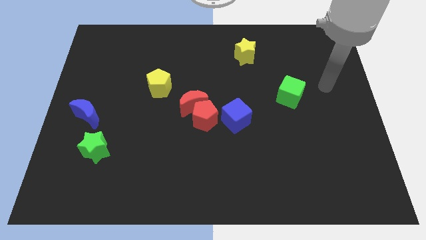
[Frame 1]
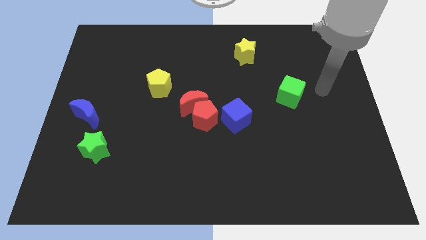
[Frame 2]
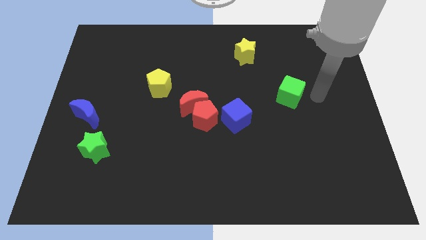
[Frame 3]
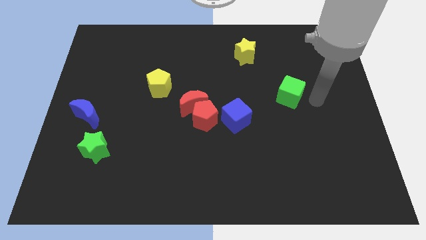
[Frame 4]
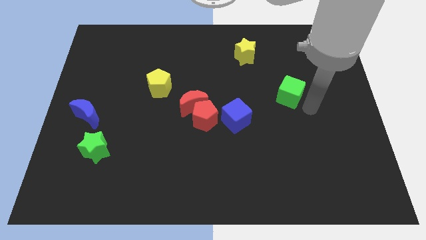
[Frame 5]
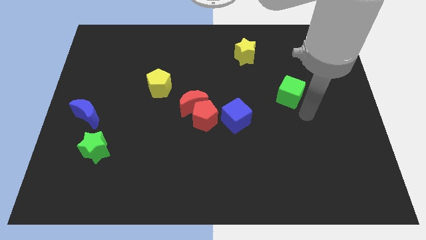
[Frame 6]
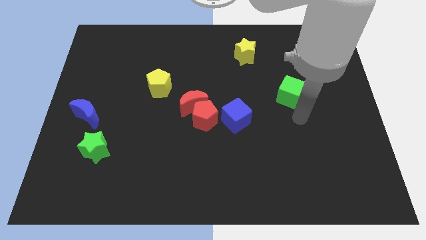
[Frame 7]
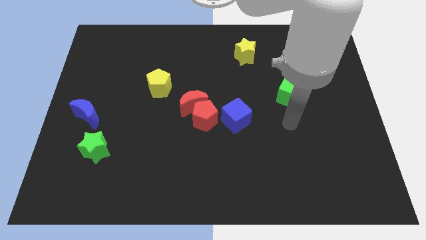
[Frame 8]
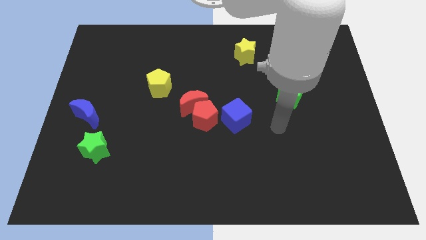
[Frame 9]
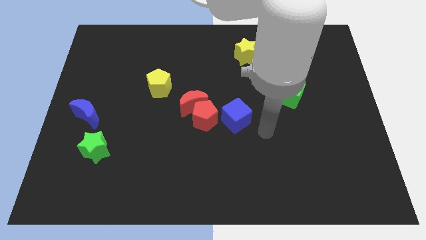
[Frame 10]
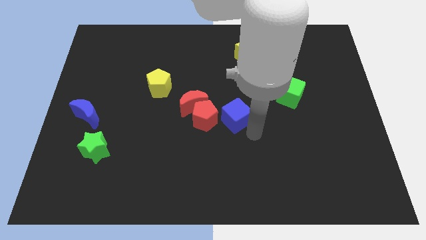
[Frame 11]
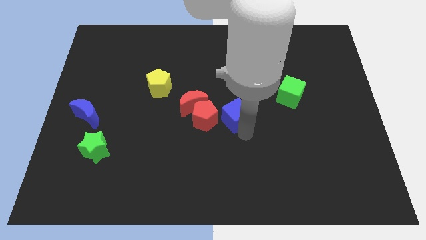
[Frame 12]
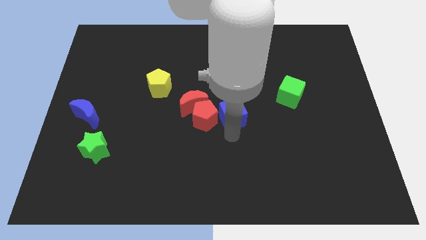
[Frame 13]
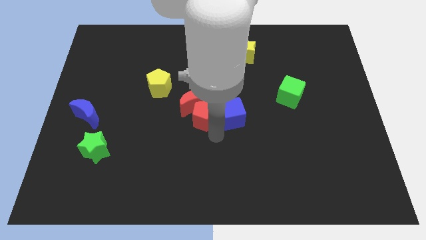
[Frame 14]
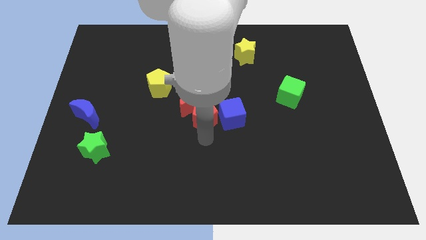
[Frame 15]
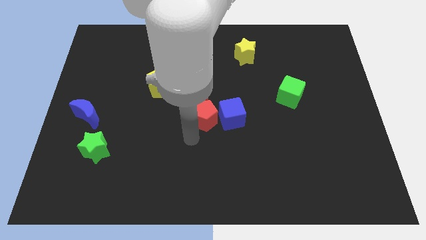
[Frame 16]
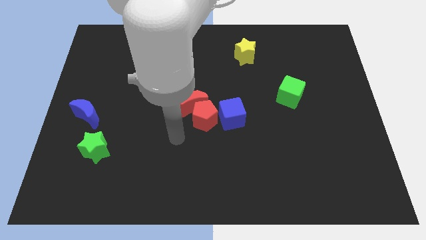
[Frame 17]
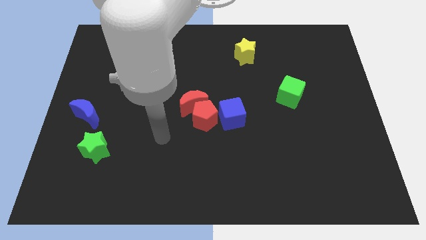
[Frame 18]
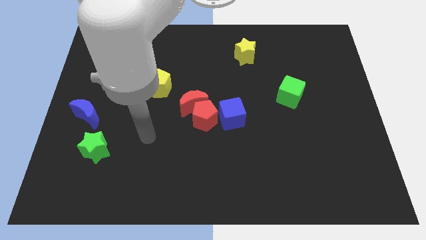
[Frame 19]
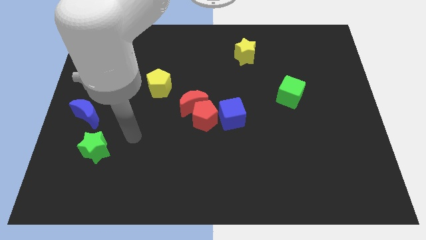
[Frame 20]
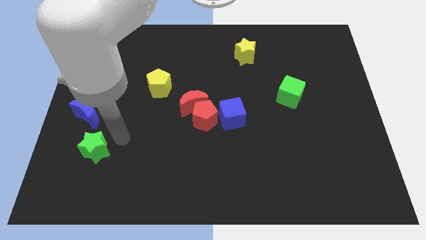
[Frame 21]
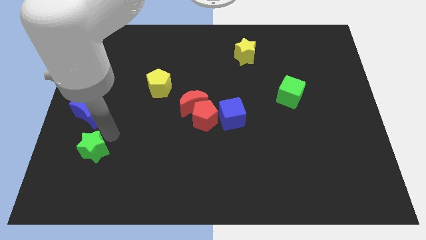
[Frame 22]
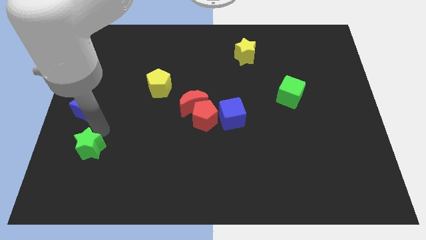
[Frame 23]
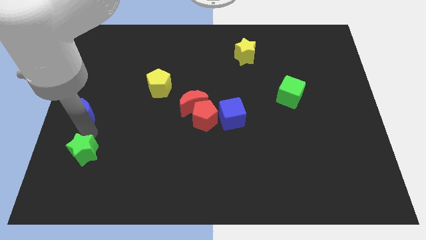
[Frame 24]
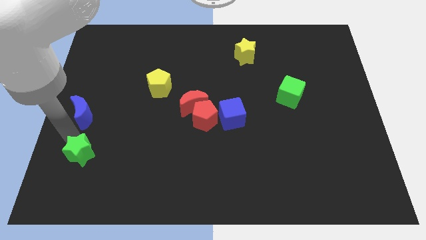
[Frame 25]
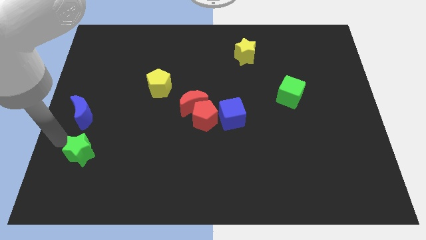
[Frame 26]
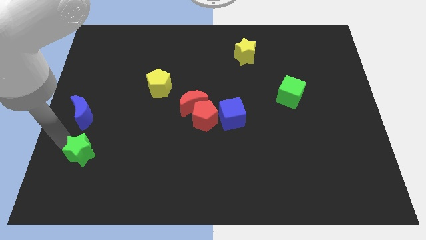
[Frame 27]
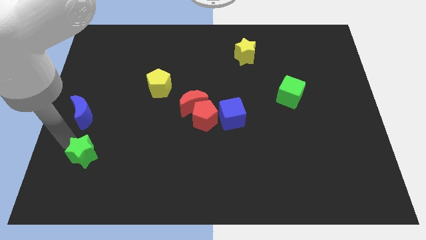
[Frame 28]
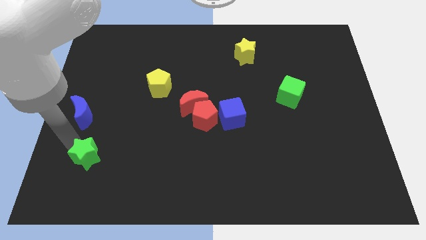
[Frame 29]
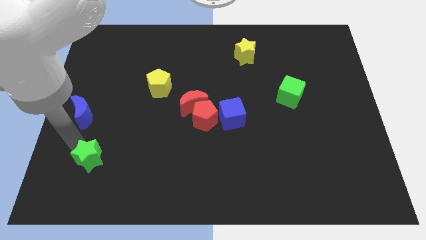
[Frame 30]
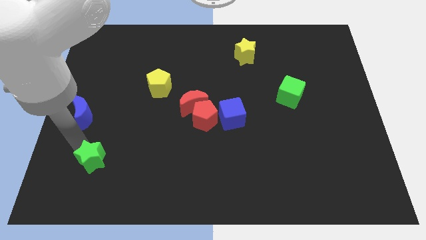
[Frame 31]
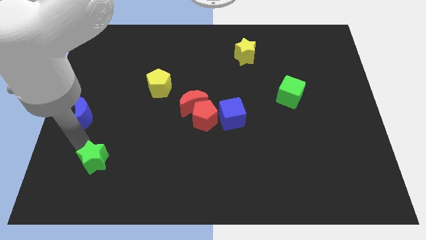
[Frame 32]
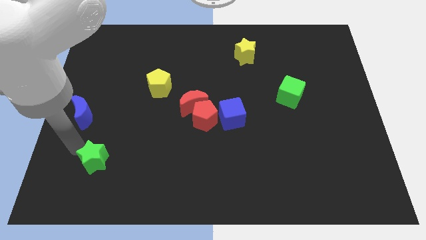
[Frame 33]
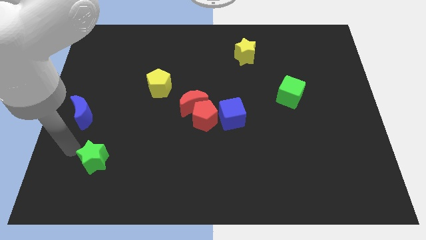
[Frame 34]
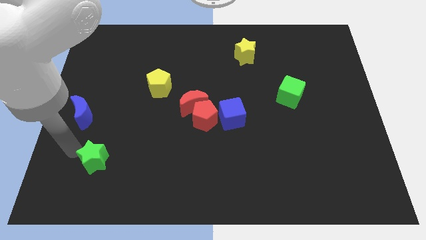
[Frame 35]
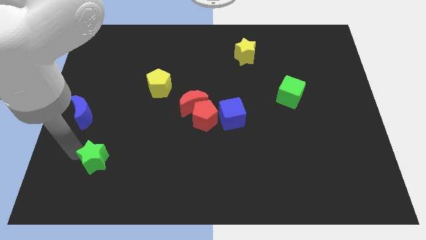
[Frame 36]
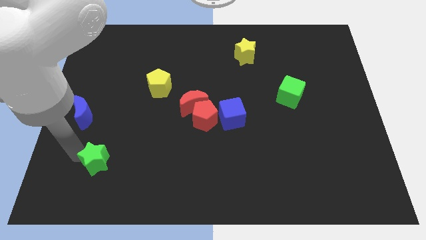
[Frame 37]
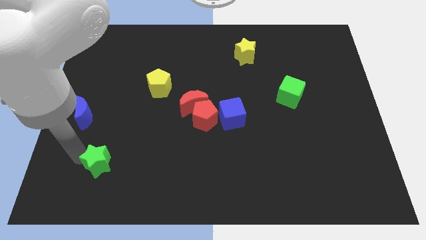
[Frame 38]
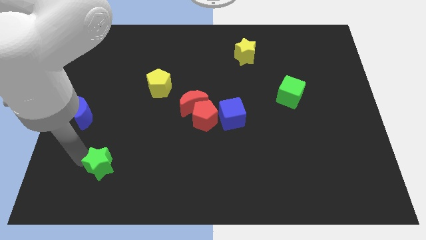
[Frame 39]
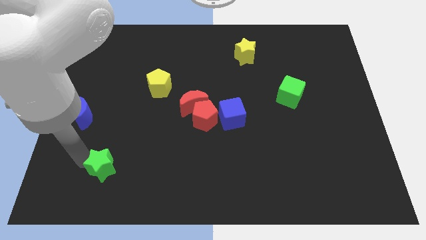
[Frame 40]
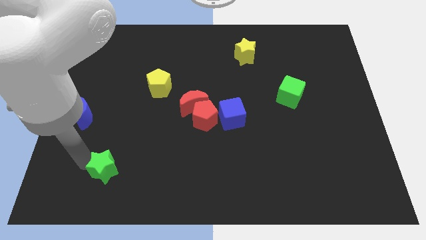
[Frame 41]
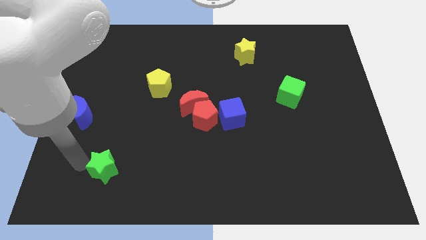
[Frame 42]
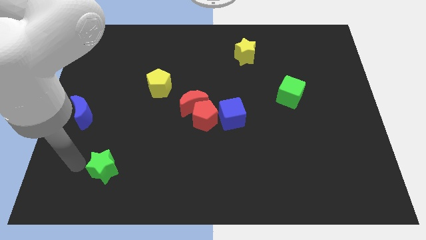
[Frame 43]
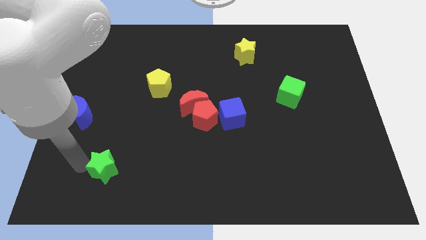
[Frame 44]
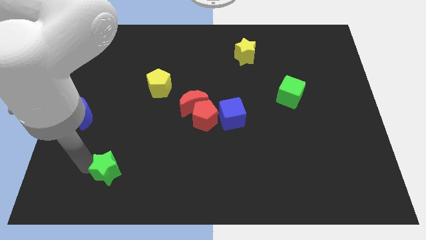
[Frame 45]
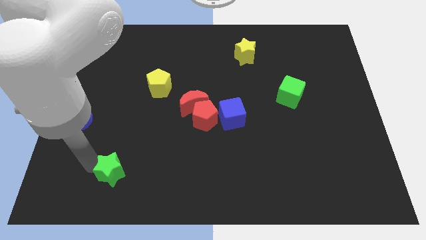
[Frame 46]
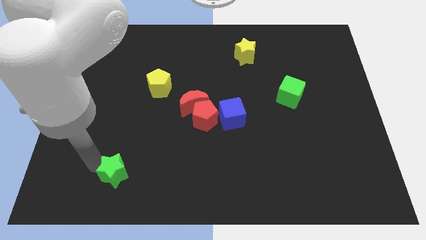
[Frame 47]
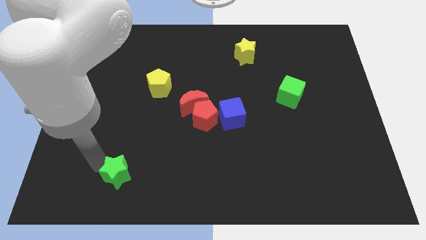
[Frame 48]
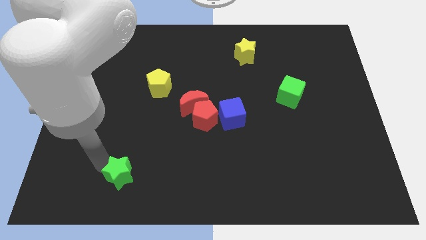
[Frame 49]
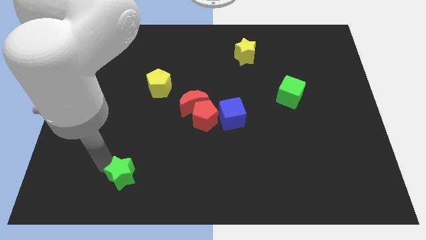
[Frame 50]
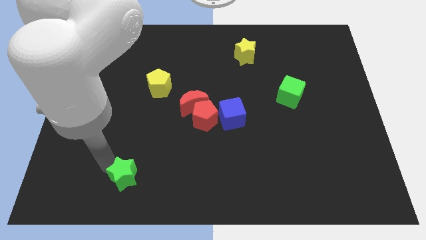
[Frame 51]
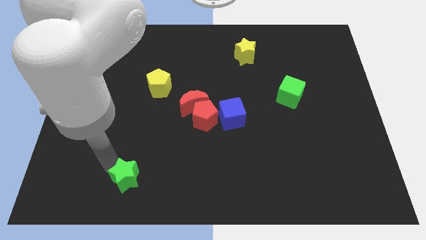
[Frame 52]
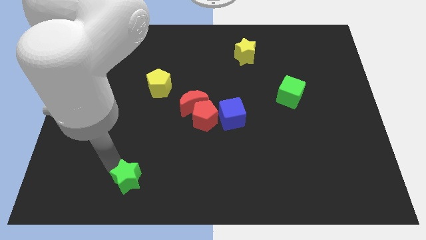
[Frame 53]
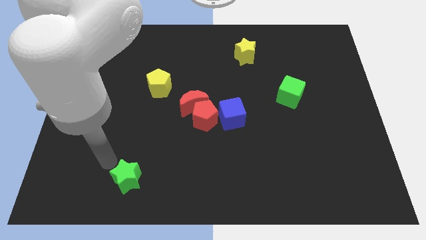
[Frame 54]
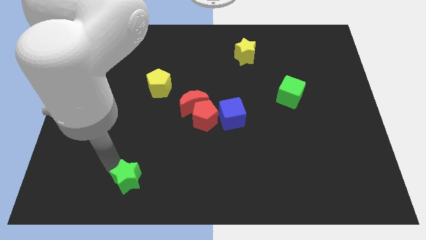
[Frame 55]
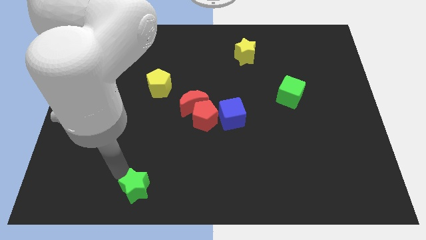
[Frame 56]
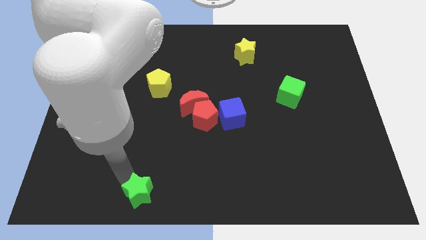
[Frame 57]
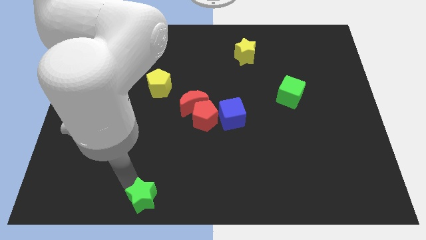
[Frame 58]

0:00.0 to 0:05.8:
slide the green star to the bottom side

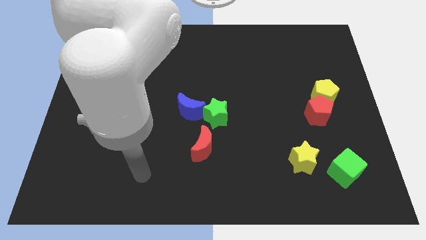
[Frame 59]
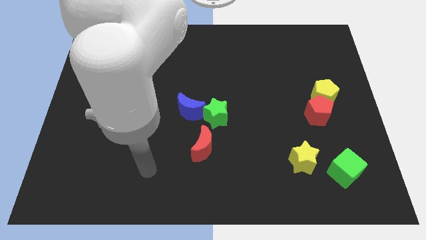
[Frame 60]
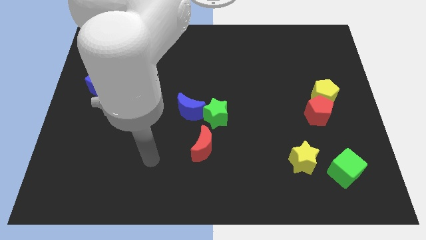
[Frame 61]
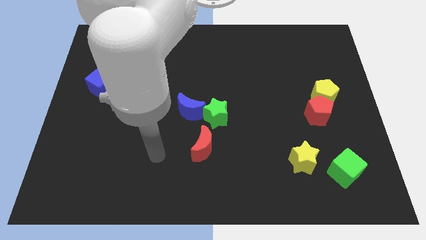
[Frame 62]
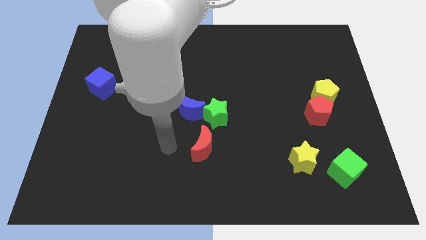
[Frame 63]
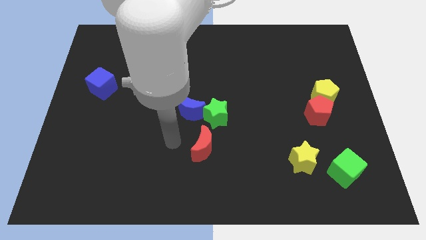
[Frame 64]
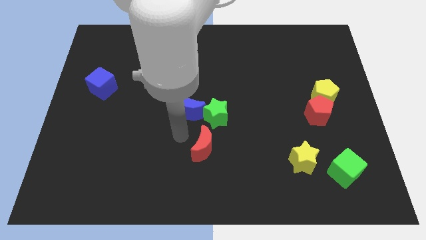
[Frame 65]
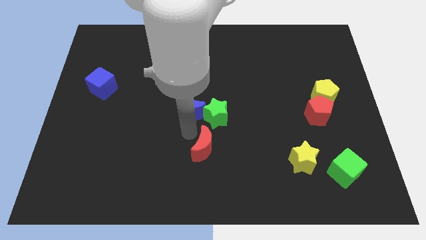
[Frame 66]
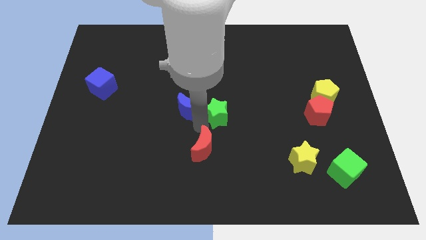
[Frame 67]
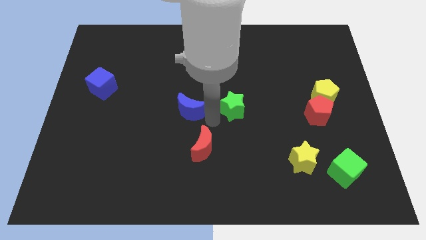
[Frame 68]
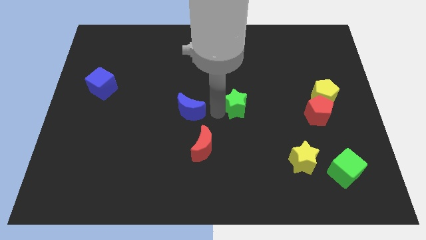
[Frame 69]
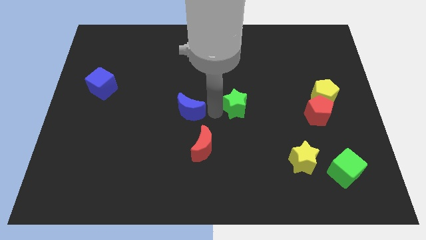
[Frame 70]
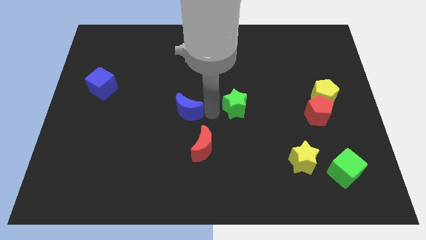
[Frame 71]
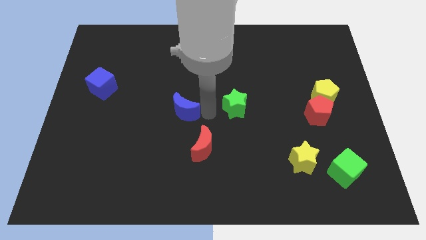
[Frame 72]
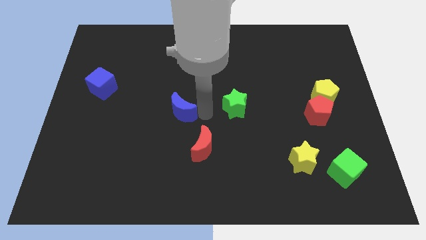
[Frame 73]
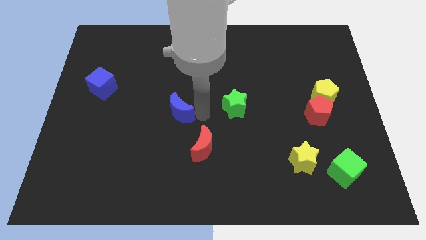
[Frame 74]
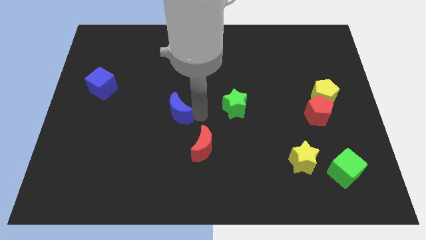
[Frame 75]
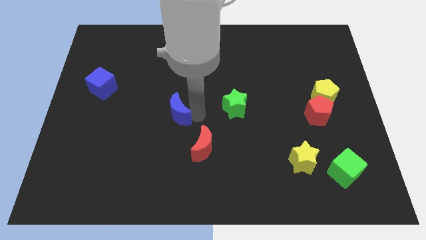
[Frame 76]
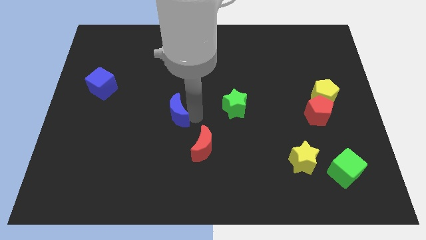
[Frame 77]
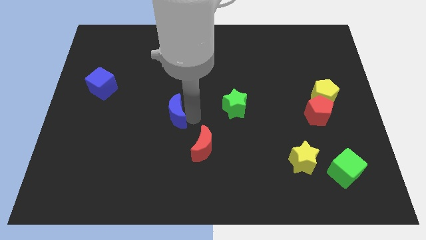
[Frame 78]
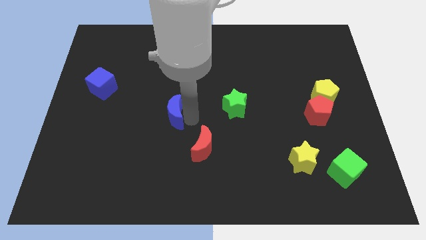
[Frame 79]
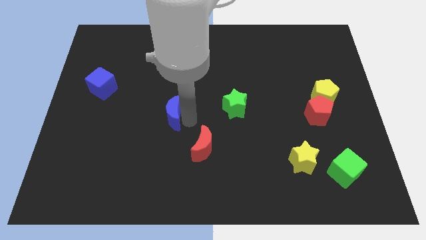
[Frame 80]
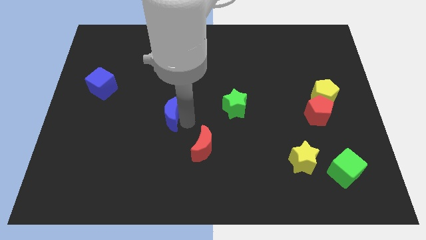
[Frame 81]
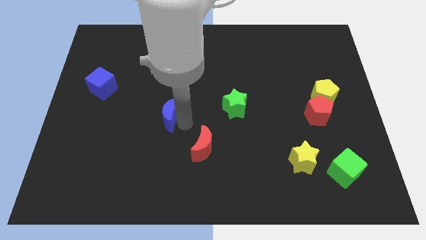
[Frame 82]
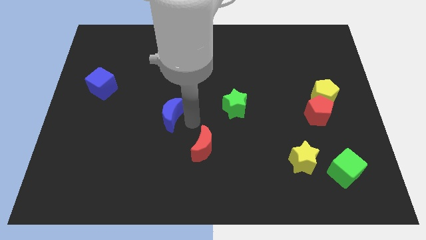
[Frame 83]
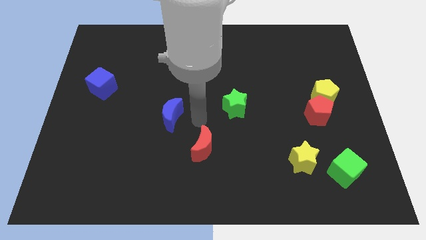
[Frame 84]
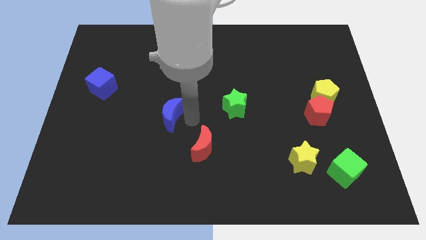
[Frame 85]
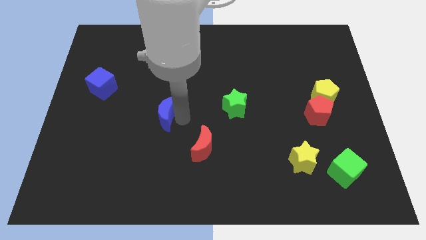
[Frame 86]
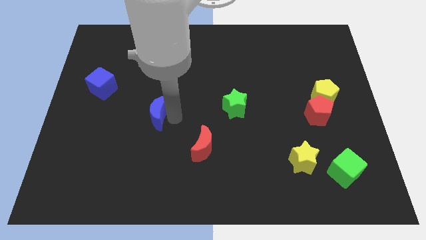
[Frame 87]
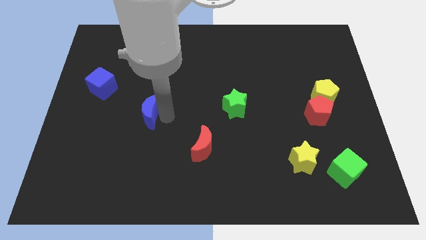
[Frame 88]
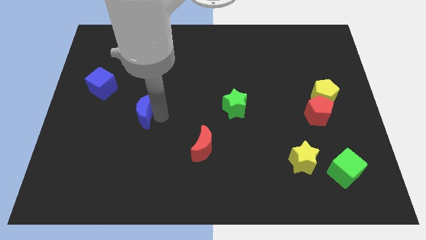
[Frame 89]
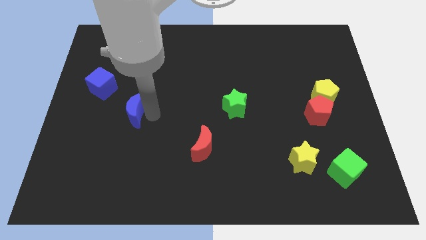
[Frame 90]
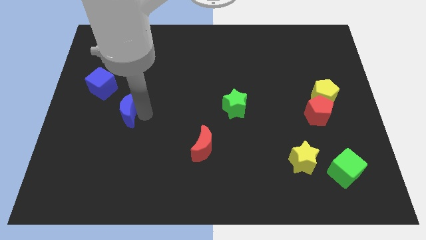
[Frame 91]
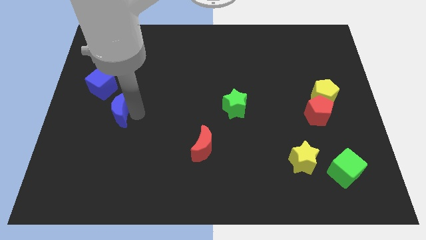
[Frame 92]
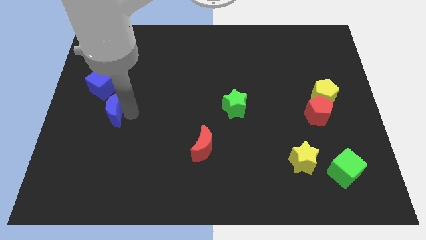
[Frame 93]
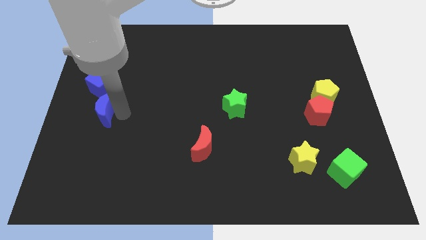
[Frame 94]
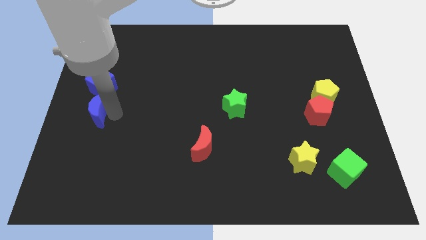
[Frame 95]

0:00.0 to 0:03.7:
put the blue moon to the left side of the board
